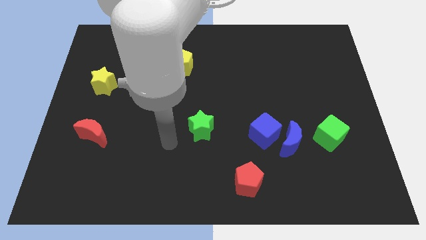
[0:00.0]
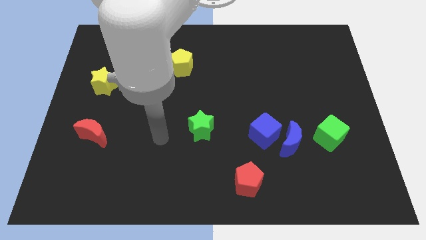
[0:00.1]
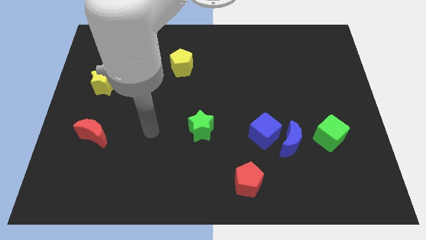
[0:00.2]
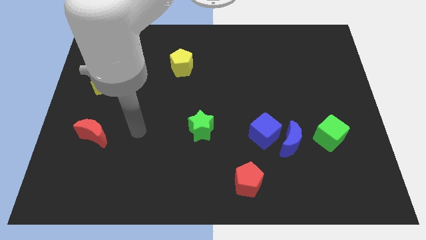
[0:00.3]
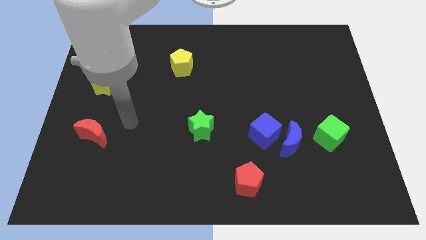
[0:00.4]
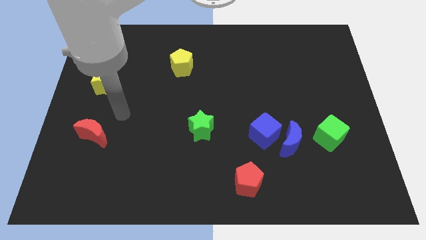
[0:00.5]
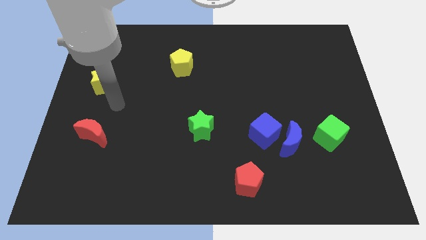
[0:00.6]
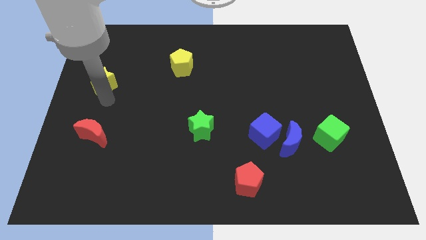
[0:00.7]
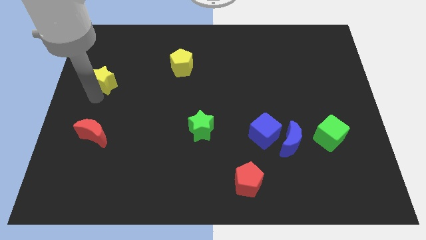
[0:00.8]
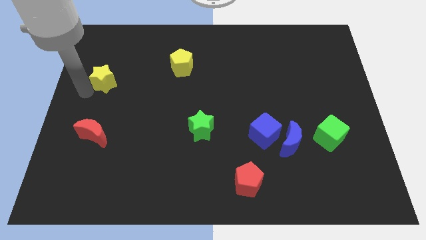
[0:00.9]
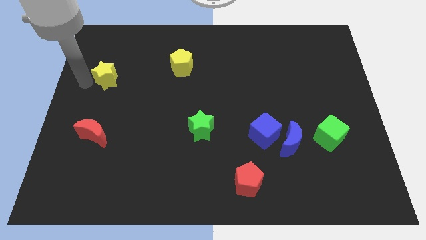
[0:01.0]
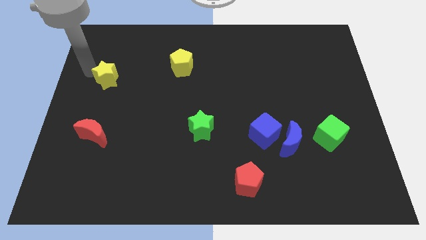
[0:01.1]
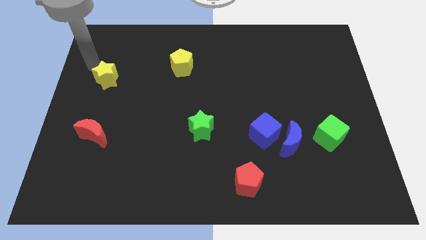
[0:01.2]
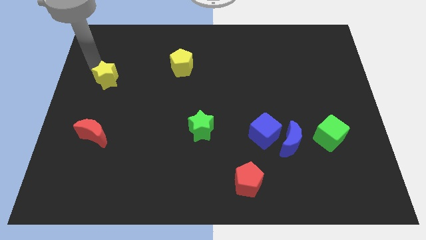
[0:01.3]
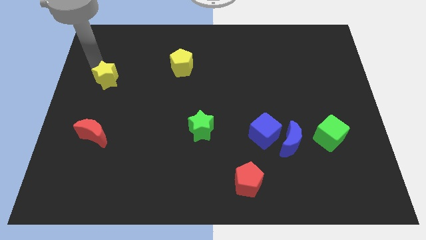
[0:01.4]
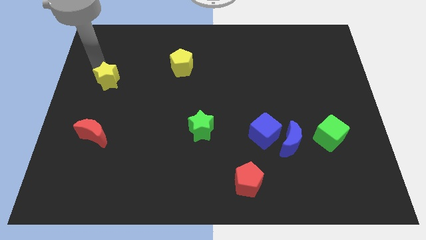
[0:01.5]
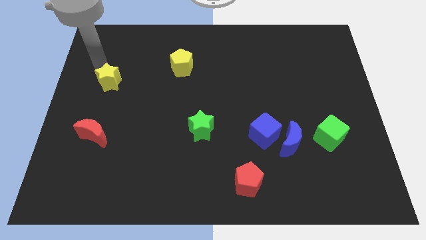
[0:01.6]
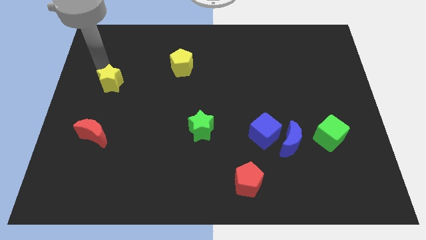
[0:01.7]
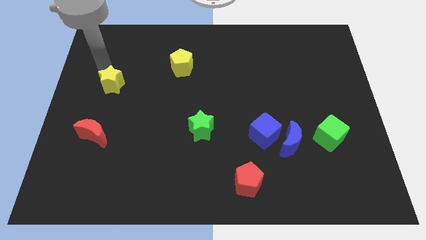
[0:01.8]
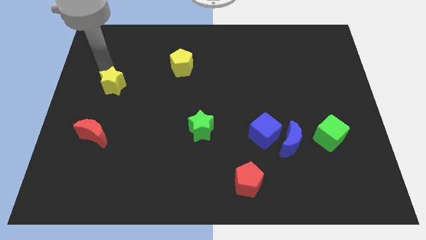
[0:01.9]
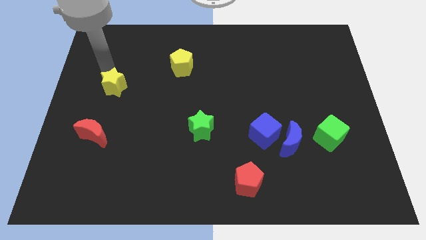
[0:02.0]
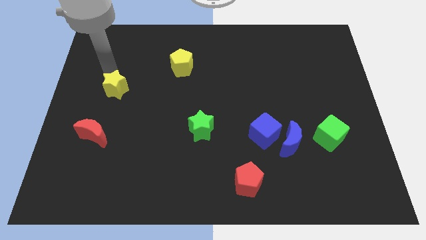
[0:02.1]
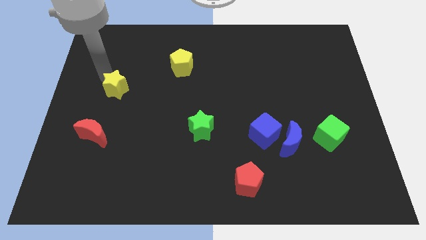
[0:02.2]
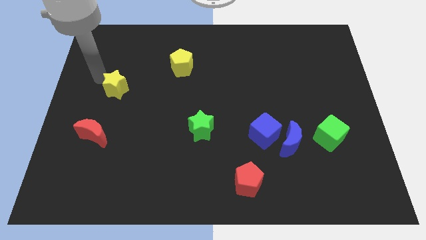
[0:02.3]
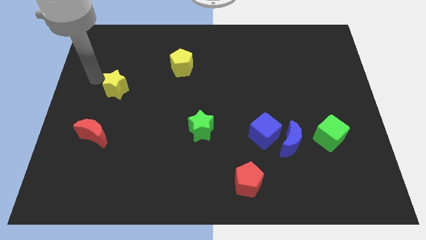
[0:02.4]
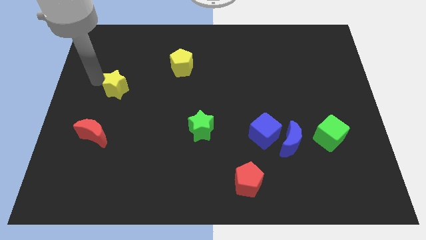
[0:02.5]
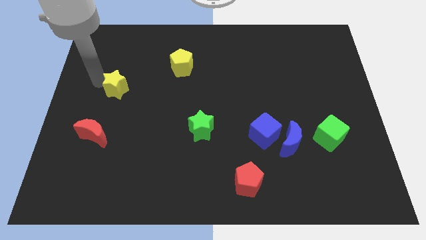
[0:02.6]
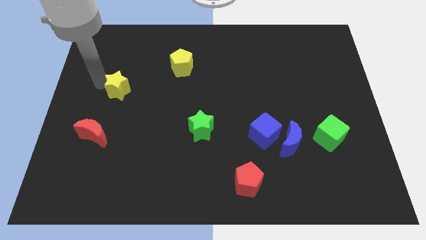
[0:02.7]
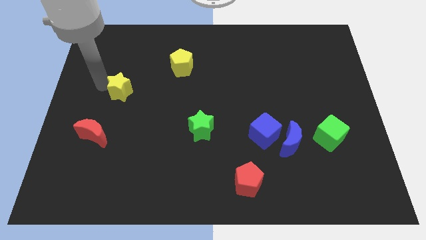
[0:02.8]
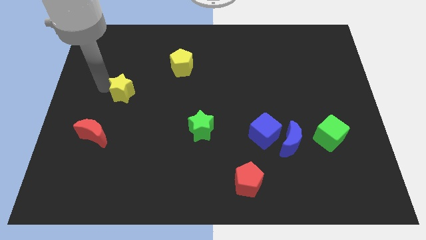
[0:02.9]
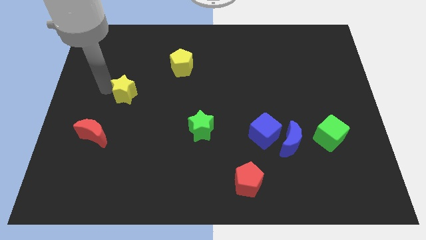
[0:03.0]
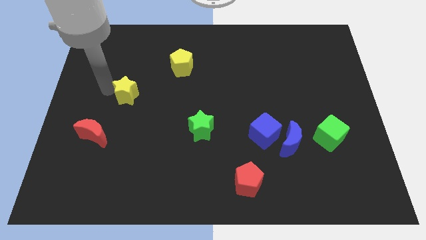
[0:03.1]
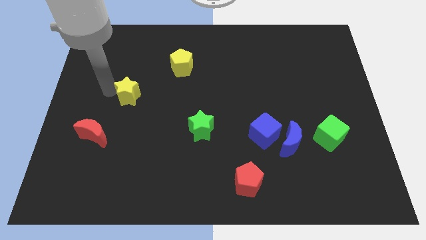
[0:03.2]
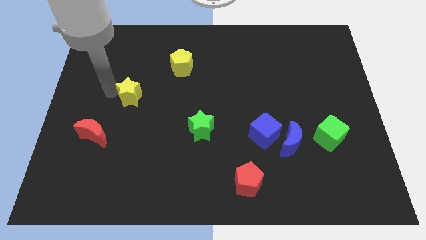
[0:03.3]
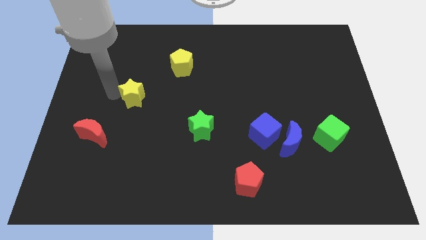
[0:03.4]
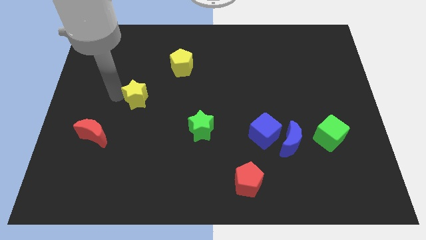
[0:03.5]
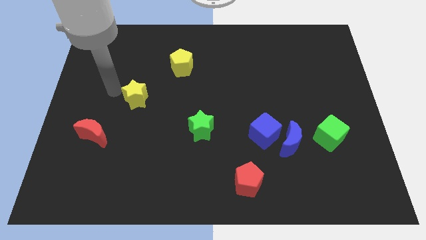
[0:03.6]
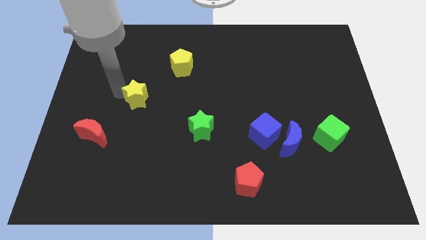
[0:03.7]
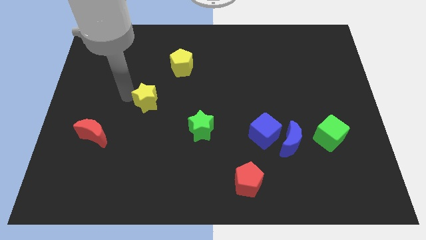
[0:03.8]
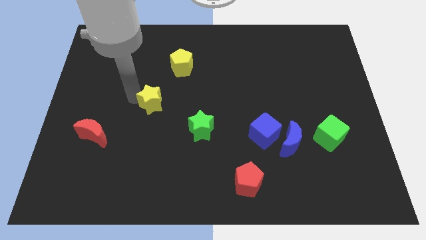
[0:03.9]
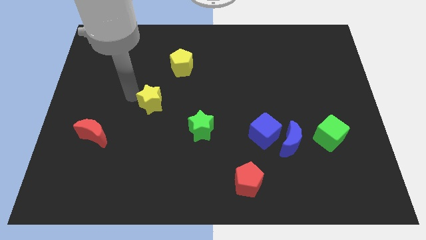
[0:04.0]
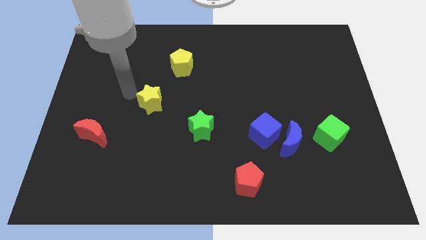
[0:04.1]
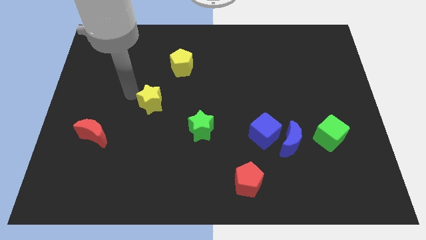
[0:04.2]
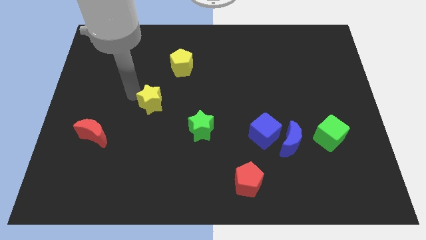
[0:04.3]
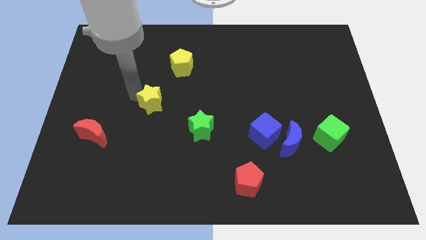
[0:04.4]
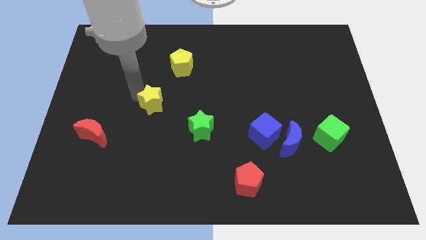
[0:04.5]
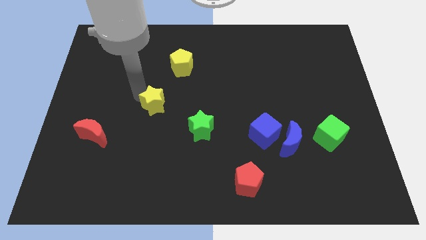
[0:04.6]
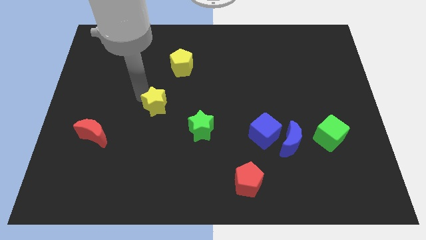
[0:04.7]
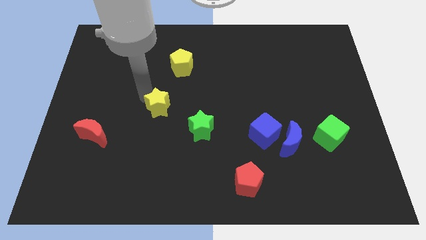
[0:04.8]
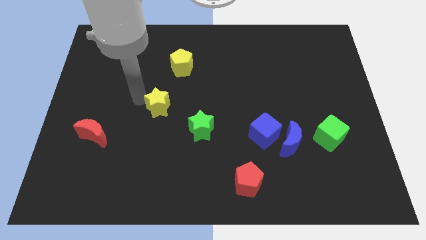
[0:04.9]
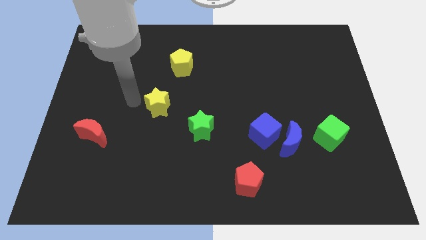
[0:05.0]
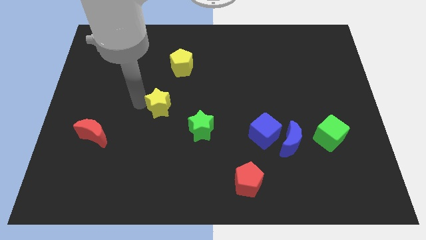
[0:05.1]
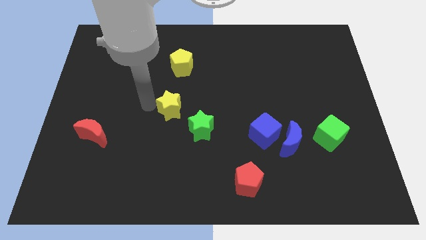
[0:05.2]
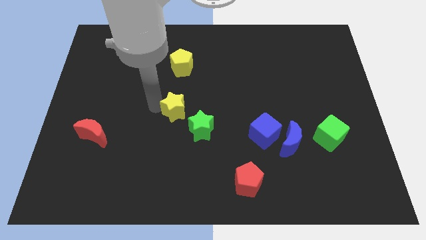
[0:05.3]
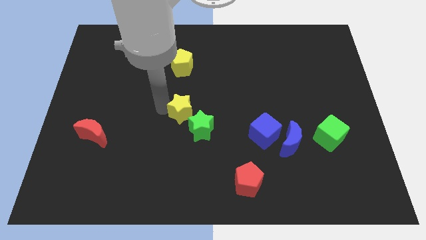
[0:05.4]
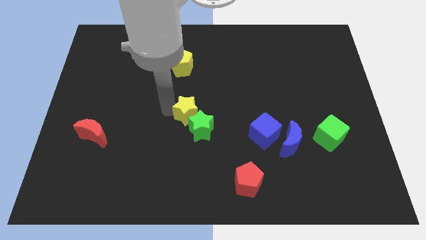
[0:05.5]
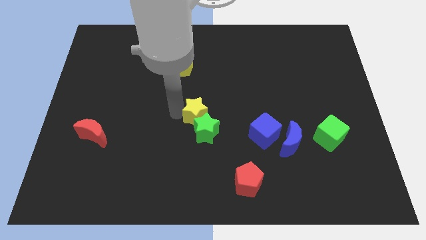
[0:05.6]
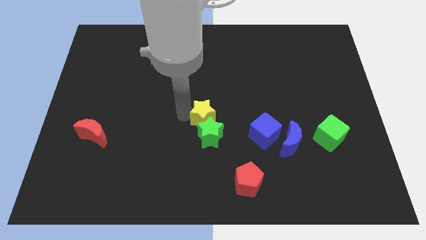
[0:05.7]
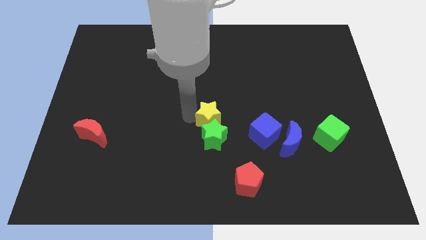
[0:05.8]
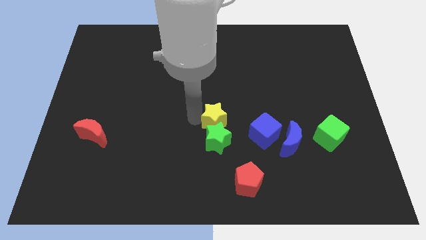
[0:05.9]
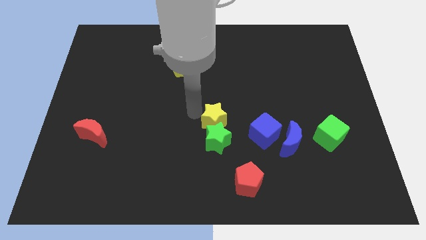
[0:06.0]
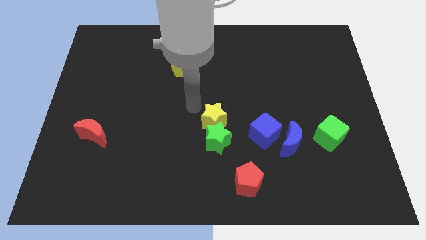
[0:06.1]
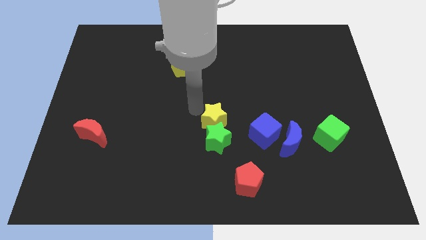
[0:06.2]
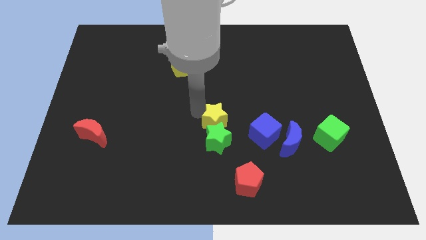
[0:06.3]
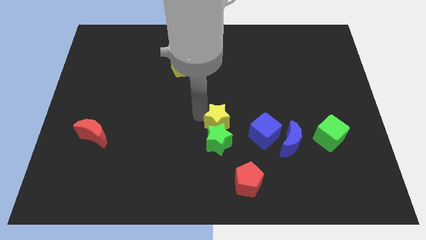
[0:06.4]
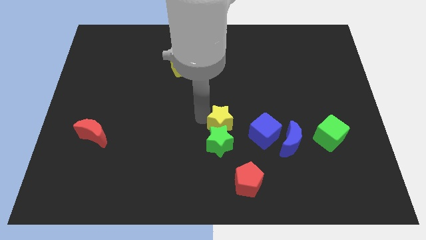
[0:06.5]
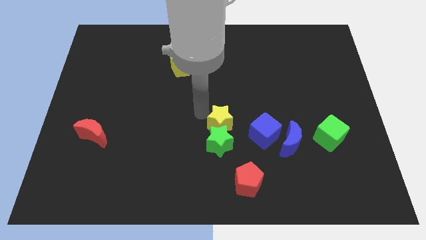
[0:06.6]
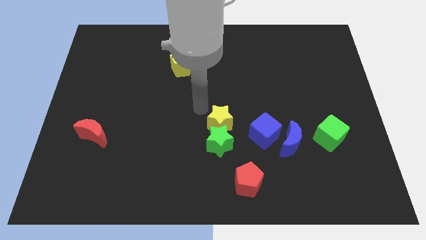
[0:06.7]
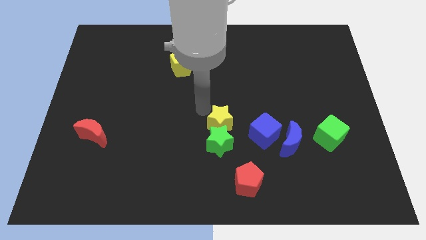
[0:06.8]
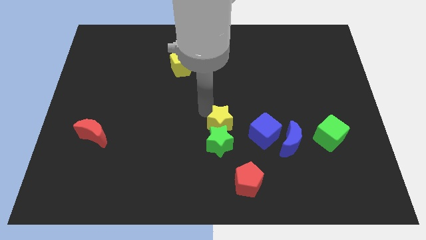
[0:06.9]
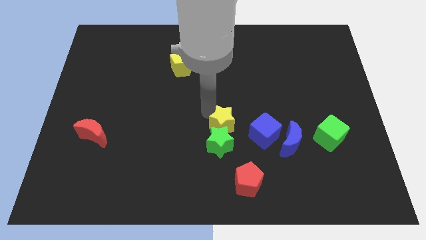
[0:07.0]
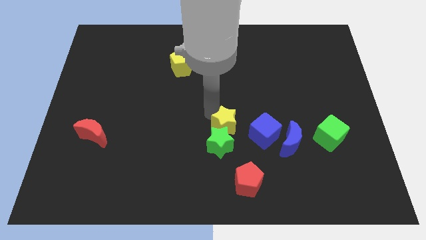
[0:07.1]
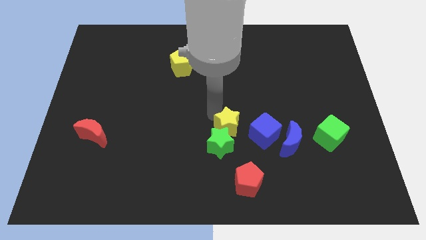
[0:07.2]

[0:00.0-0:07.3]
move the yellow star just left of the blue moon
